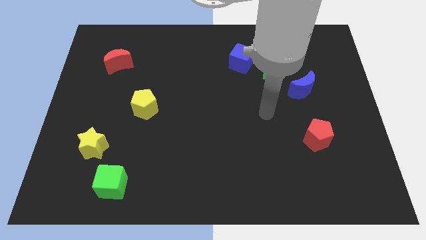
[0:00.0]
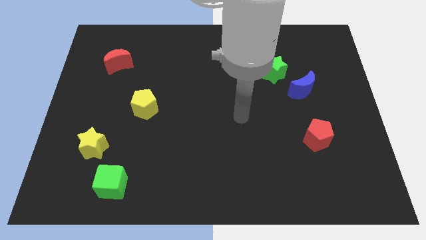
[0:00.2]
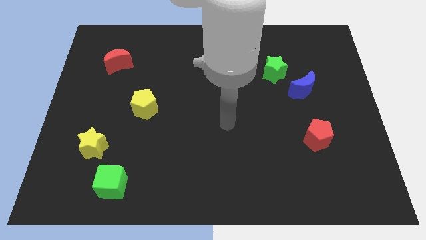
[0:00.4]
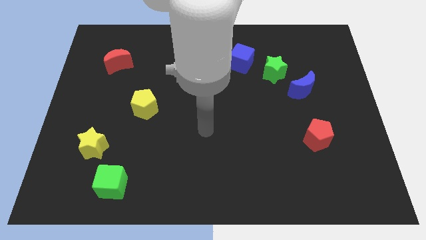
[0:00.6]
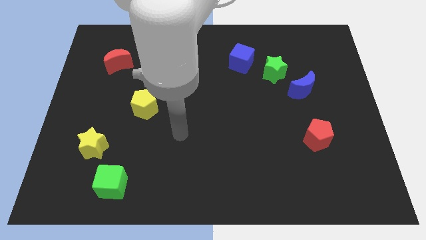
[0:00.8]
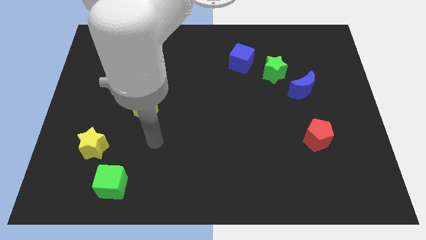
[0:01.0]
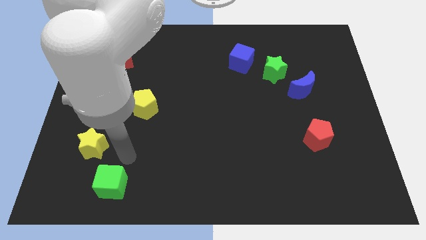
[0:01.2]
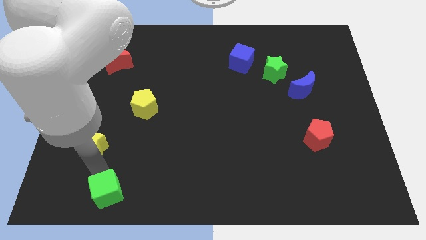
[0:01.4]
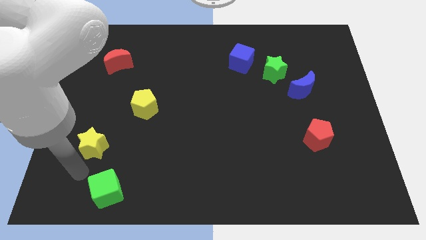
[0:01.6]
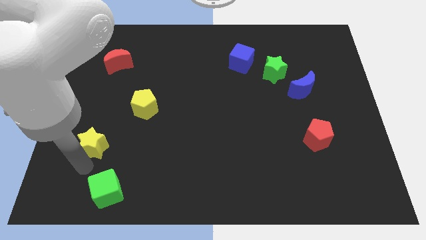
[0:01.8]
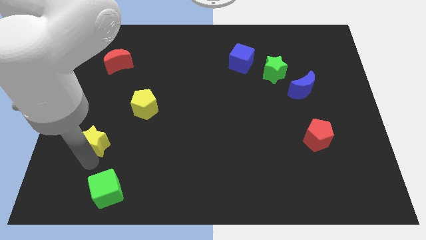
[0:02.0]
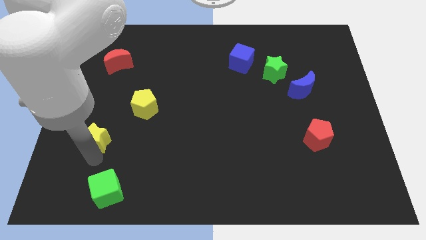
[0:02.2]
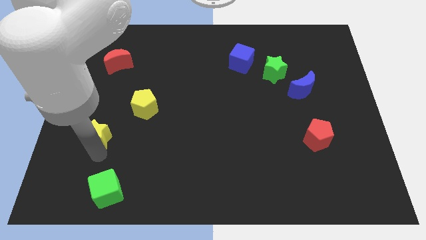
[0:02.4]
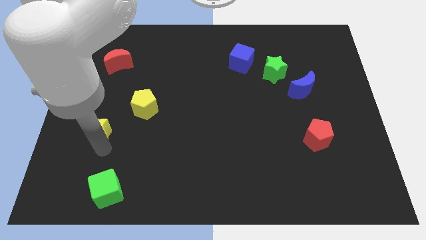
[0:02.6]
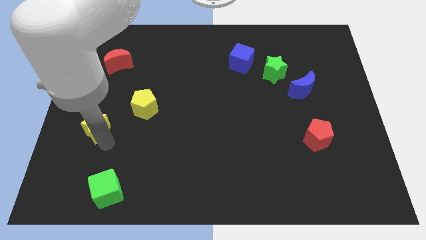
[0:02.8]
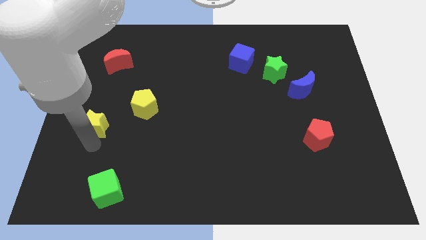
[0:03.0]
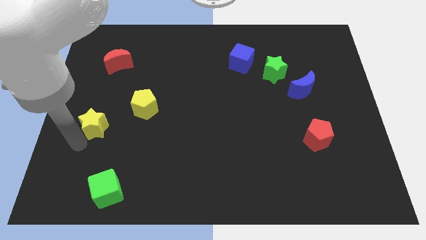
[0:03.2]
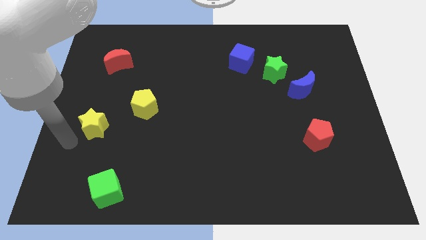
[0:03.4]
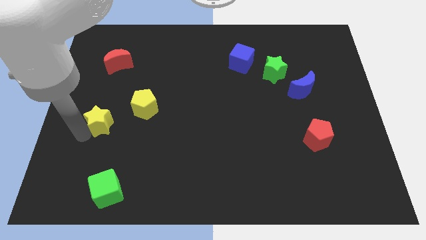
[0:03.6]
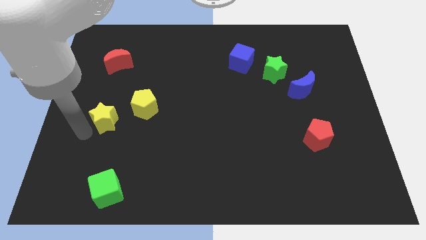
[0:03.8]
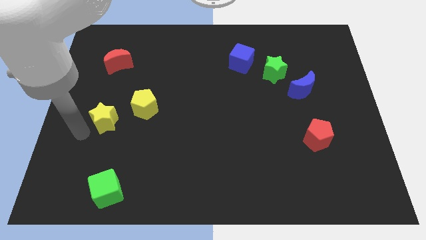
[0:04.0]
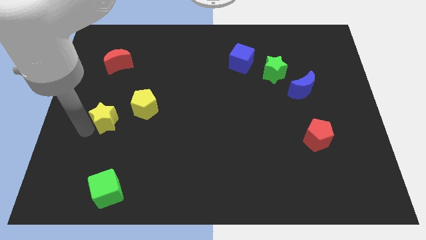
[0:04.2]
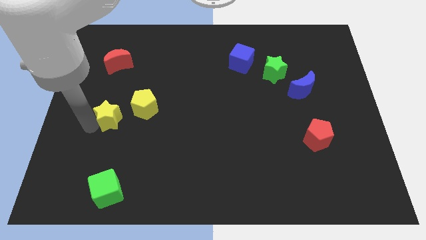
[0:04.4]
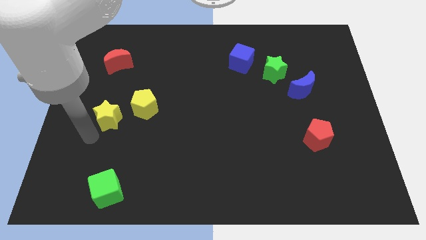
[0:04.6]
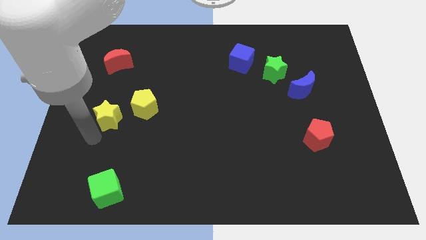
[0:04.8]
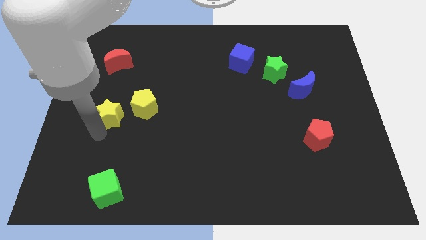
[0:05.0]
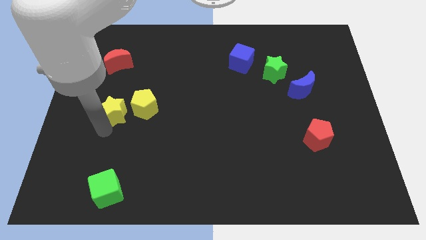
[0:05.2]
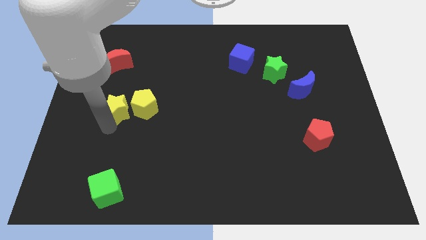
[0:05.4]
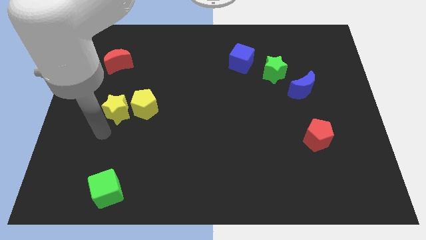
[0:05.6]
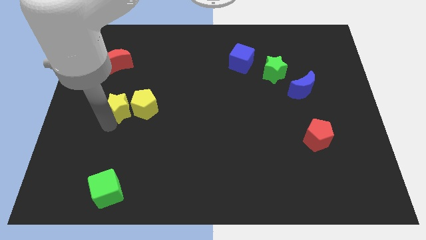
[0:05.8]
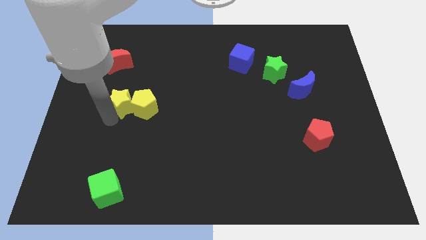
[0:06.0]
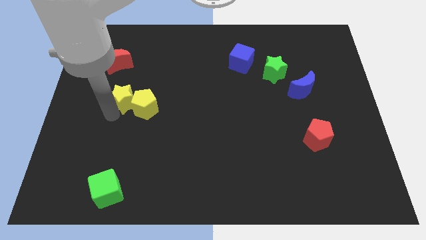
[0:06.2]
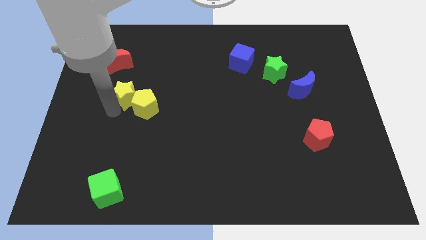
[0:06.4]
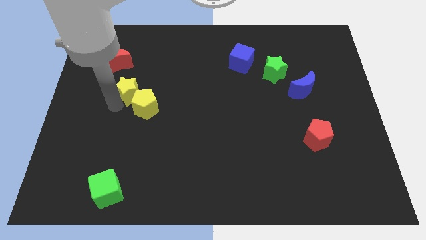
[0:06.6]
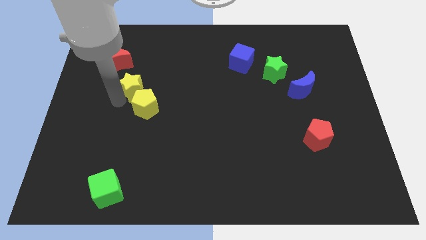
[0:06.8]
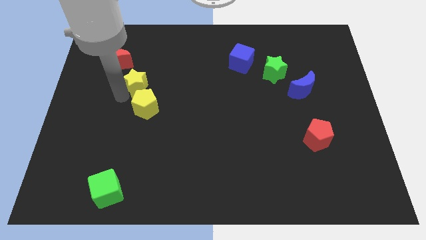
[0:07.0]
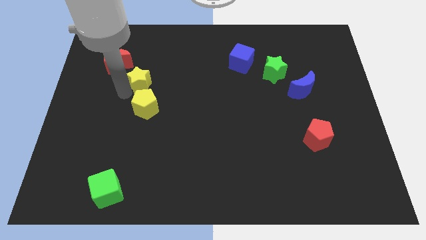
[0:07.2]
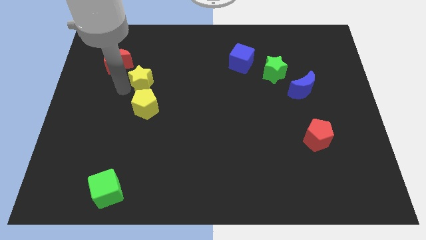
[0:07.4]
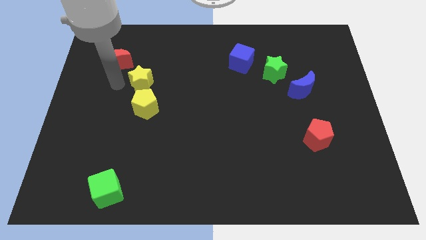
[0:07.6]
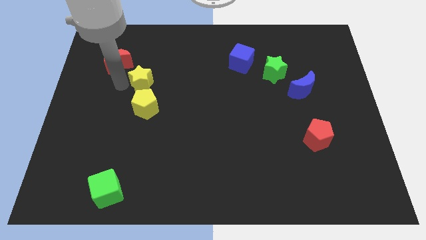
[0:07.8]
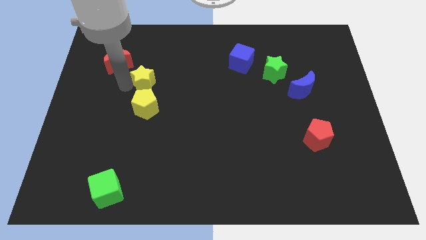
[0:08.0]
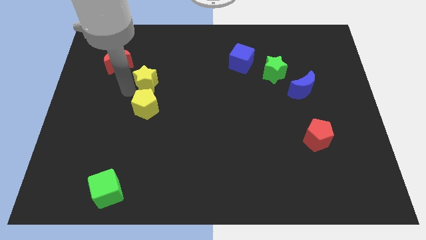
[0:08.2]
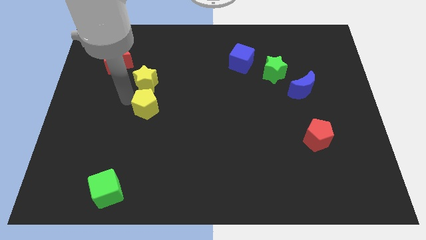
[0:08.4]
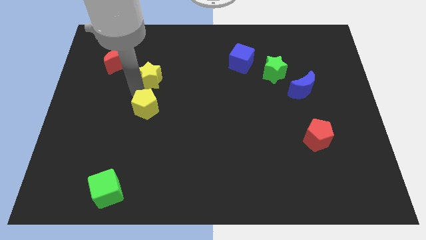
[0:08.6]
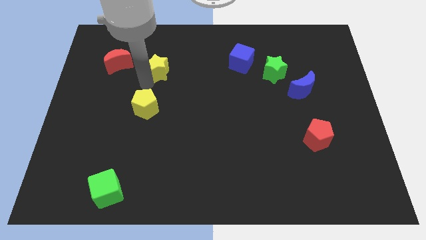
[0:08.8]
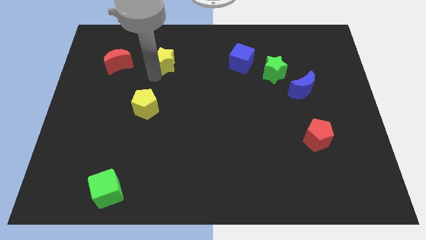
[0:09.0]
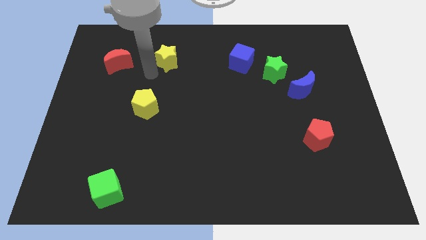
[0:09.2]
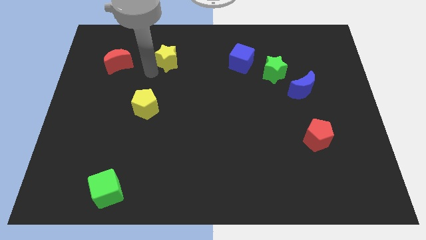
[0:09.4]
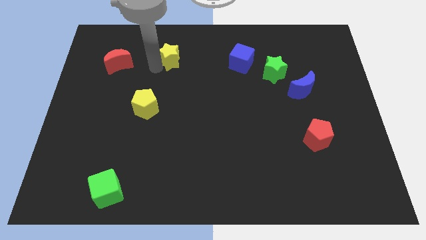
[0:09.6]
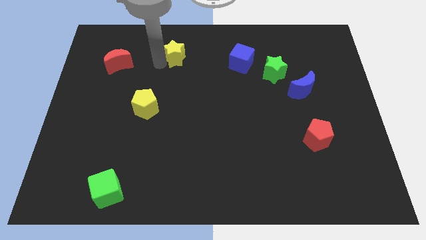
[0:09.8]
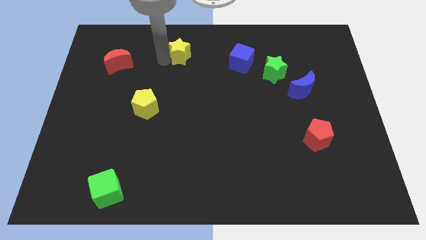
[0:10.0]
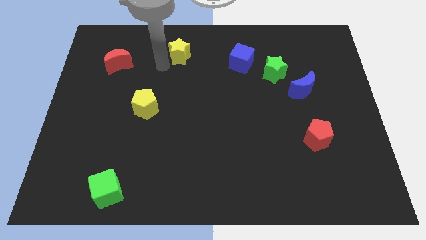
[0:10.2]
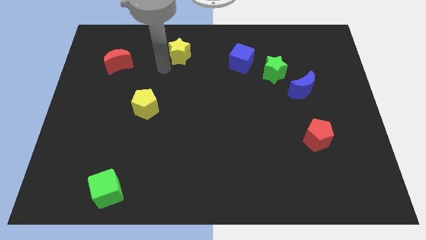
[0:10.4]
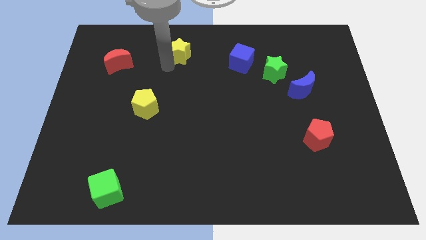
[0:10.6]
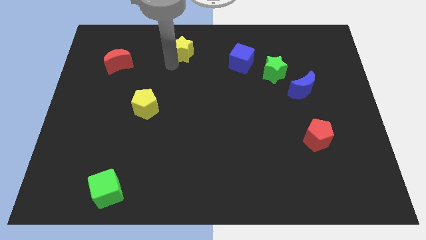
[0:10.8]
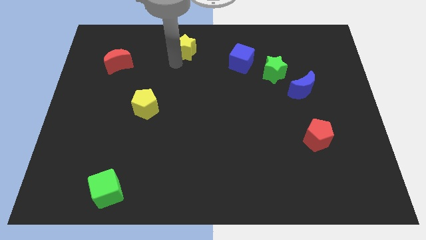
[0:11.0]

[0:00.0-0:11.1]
push the yellow star to the towards your base

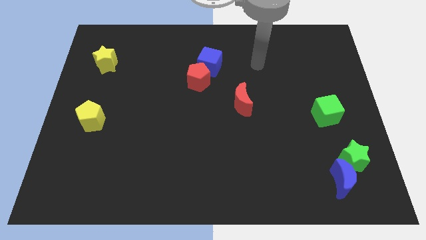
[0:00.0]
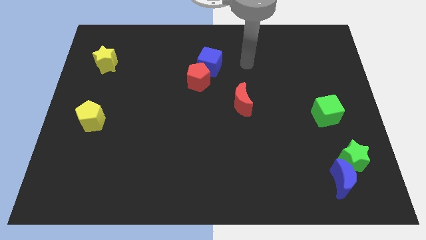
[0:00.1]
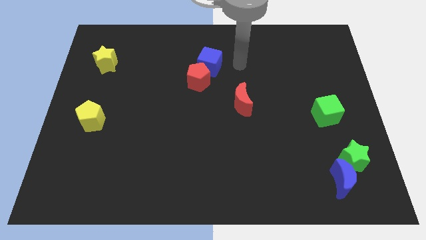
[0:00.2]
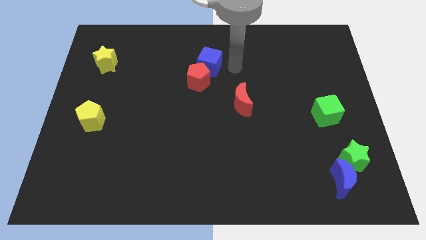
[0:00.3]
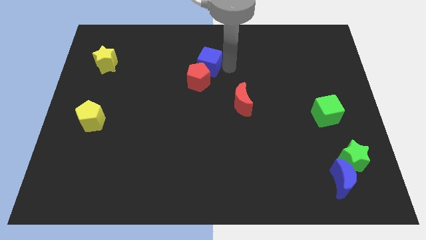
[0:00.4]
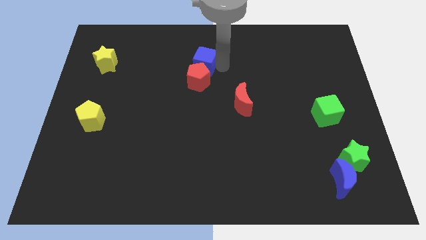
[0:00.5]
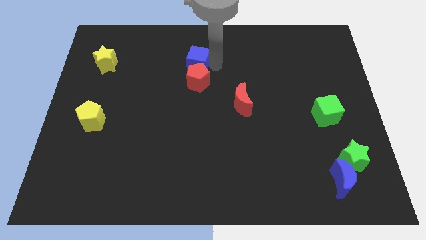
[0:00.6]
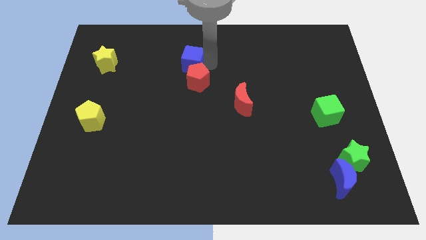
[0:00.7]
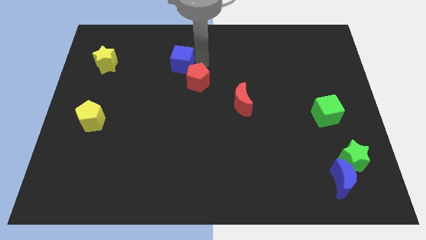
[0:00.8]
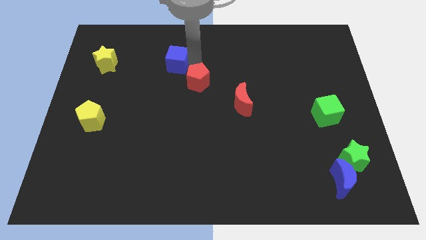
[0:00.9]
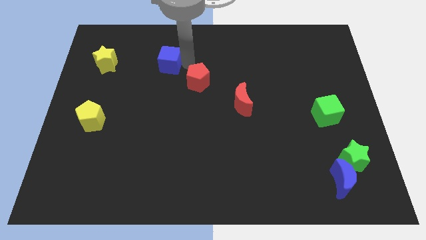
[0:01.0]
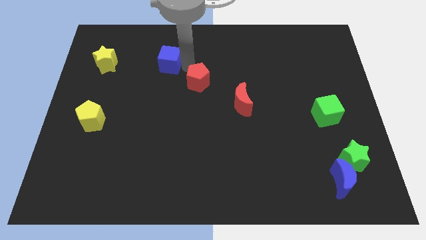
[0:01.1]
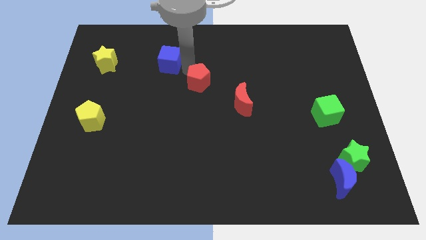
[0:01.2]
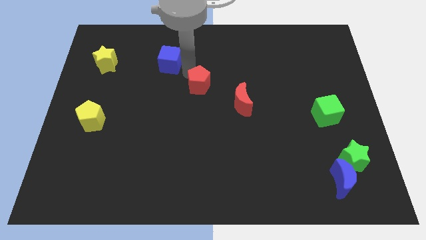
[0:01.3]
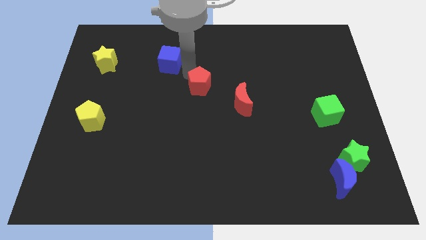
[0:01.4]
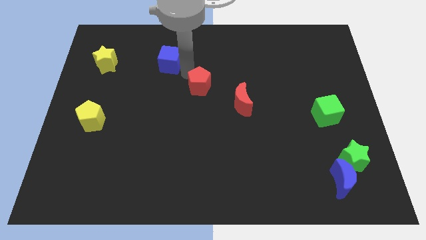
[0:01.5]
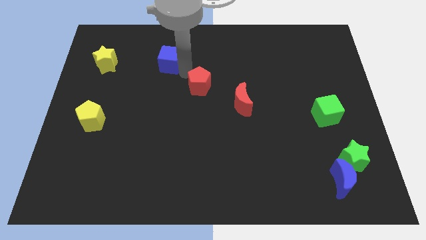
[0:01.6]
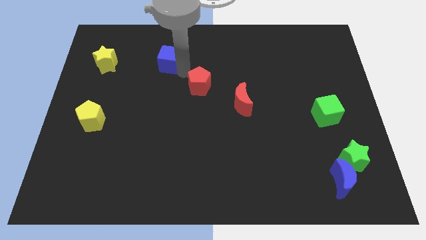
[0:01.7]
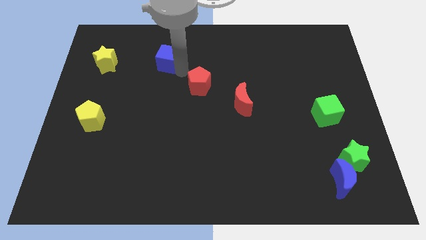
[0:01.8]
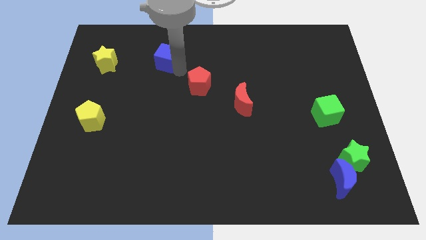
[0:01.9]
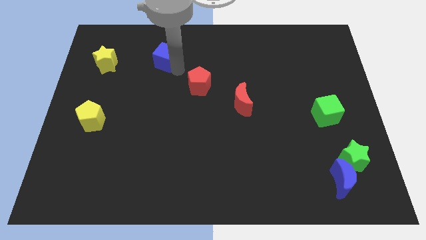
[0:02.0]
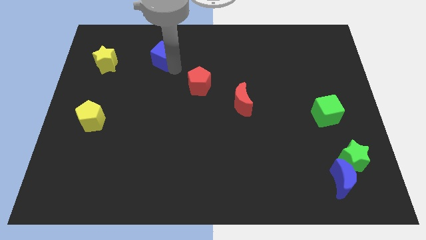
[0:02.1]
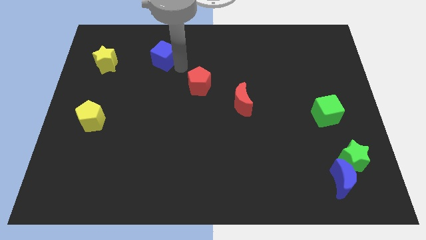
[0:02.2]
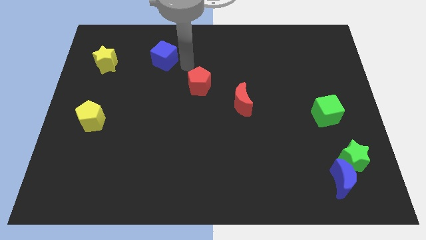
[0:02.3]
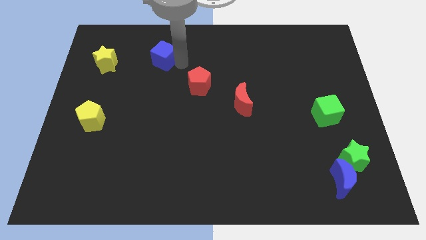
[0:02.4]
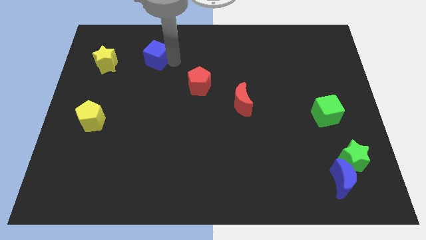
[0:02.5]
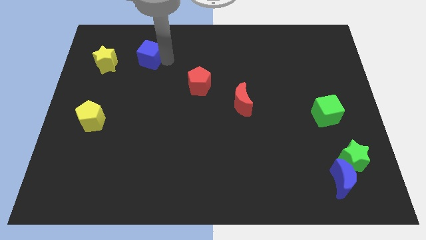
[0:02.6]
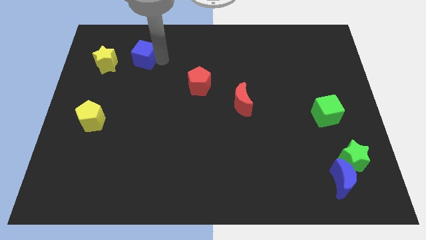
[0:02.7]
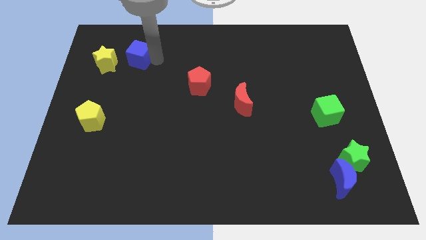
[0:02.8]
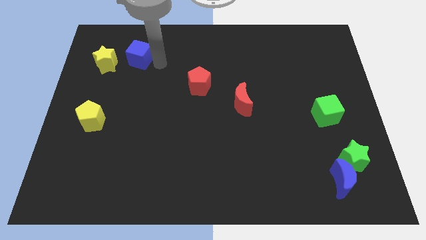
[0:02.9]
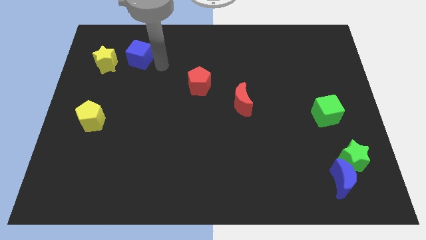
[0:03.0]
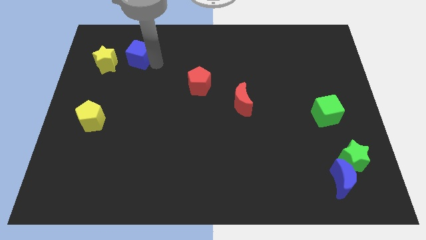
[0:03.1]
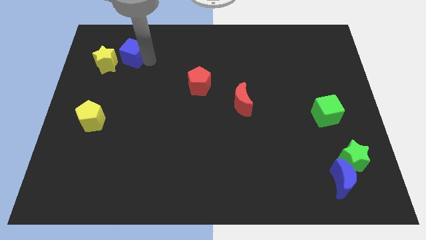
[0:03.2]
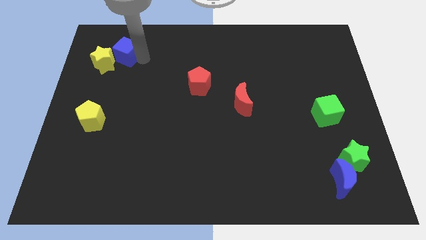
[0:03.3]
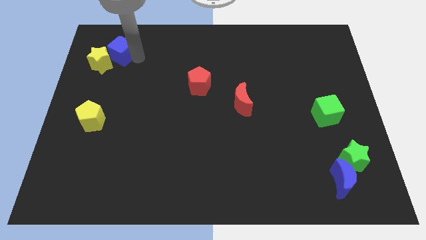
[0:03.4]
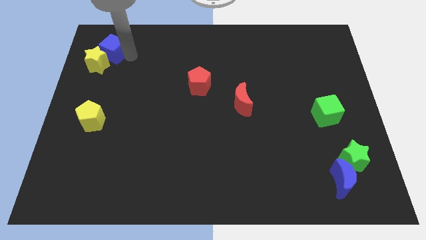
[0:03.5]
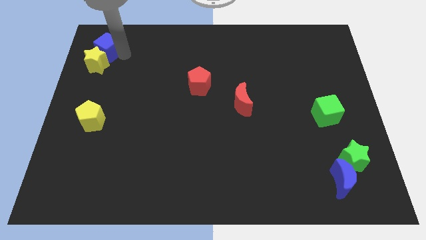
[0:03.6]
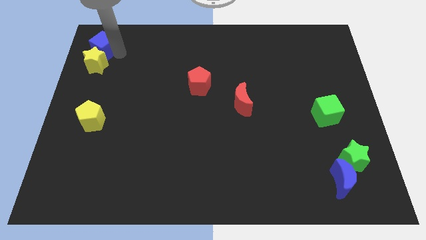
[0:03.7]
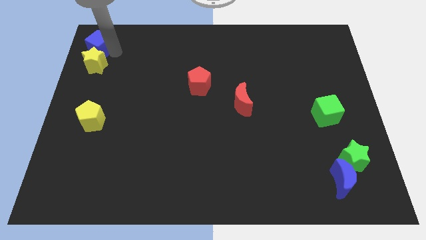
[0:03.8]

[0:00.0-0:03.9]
slide the blue cube to the top left
